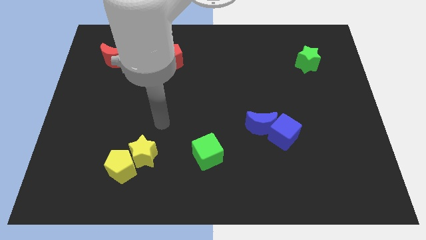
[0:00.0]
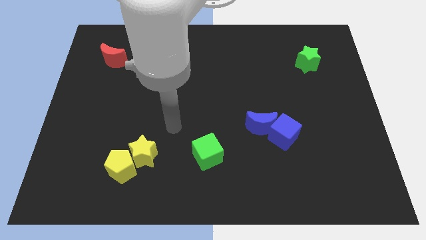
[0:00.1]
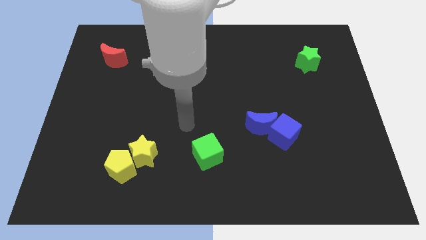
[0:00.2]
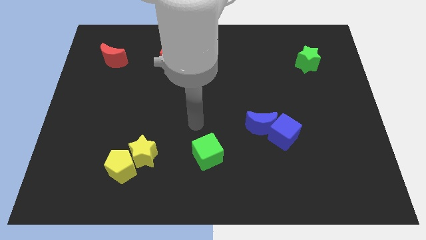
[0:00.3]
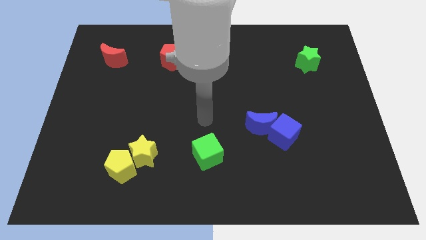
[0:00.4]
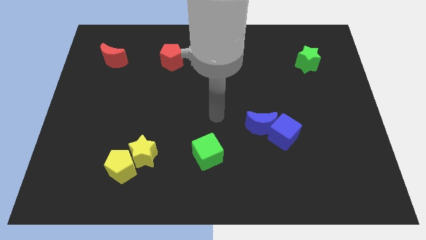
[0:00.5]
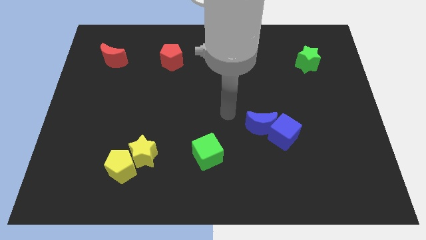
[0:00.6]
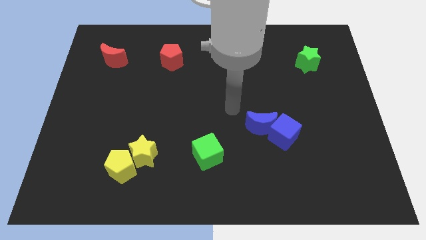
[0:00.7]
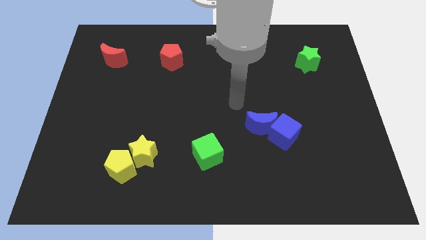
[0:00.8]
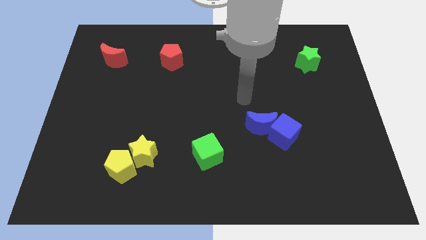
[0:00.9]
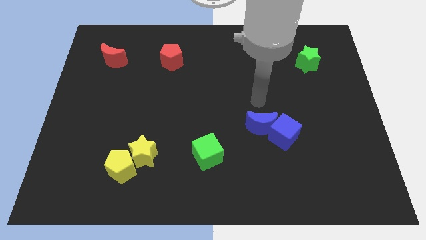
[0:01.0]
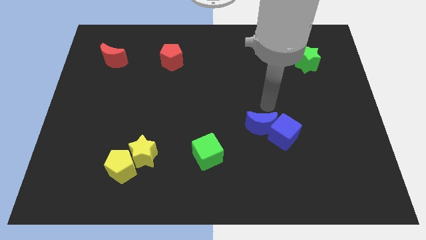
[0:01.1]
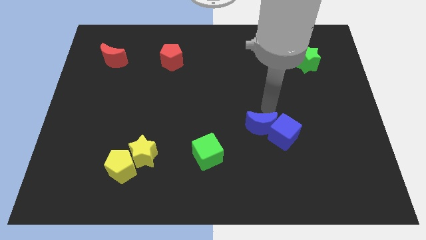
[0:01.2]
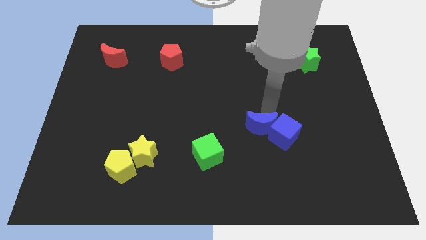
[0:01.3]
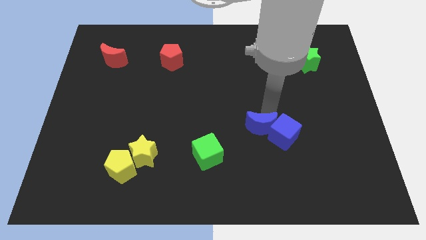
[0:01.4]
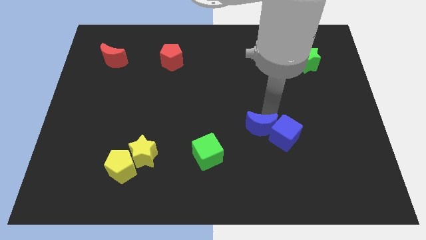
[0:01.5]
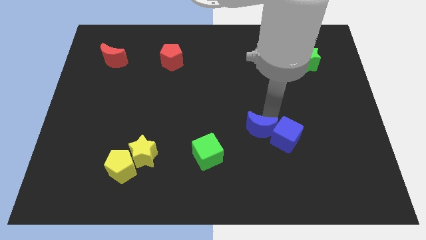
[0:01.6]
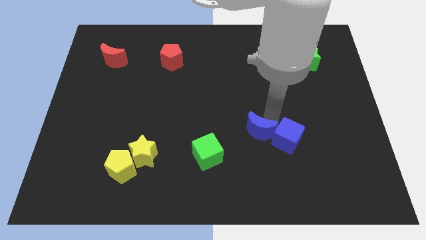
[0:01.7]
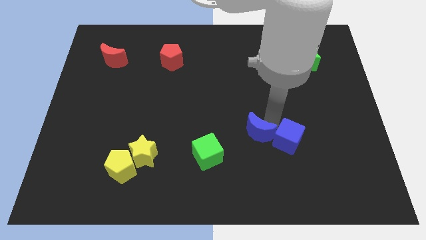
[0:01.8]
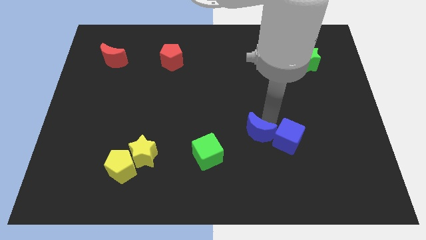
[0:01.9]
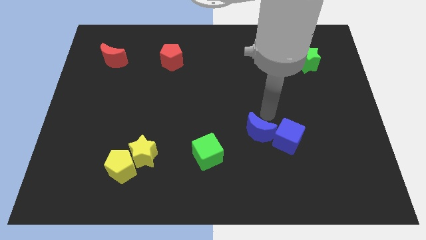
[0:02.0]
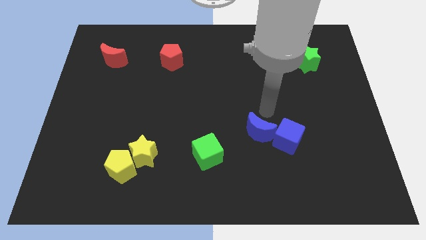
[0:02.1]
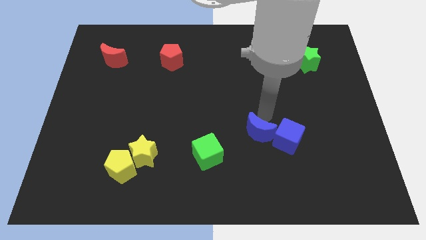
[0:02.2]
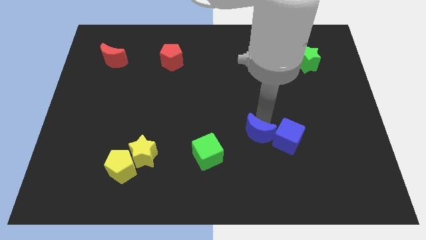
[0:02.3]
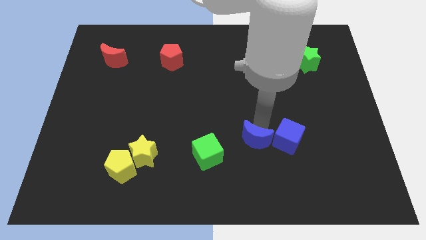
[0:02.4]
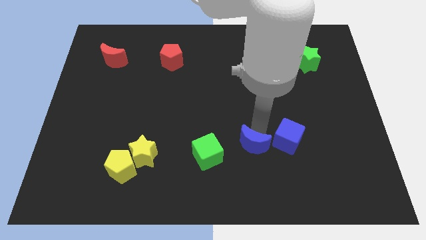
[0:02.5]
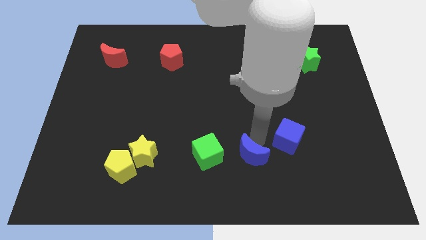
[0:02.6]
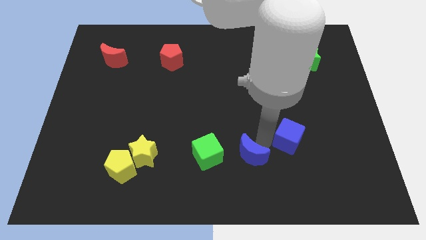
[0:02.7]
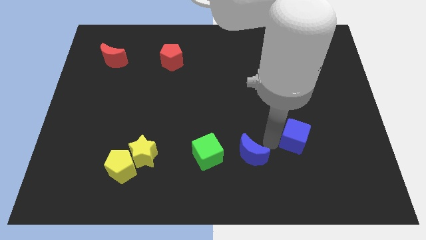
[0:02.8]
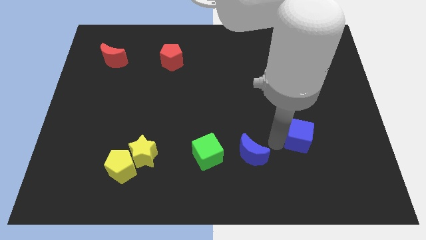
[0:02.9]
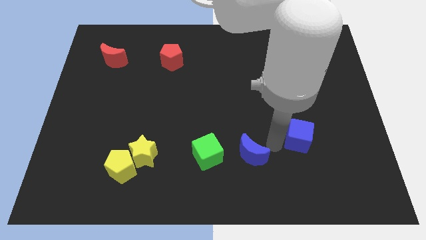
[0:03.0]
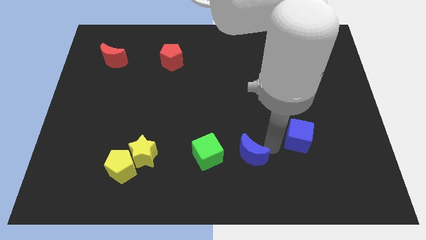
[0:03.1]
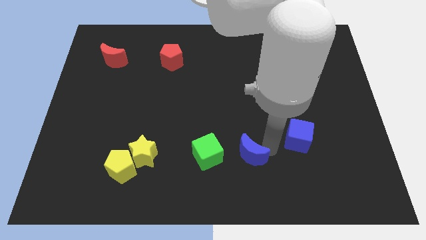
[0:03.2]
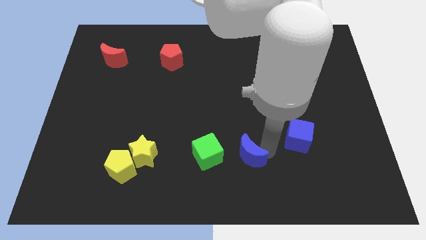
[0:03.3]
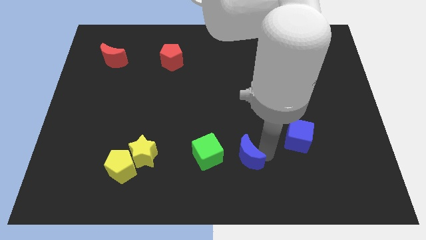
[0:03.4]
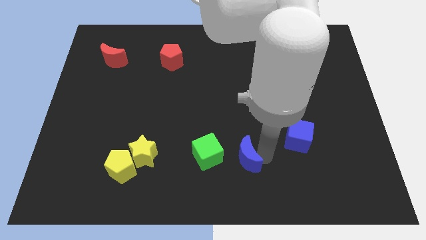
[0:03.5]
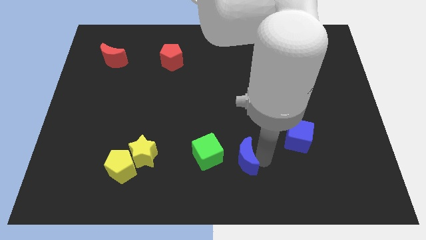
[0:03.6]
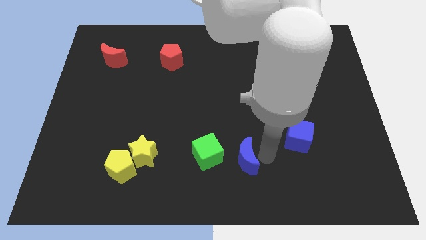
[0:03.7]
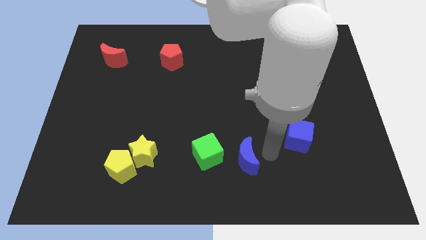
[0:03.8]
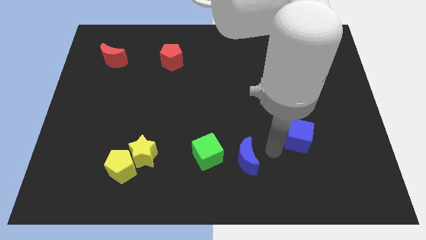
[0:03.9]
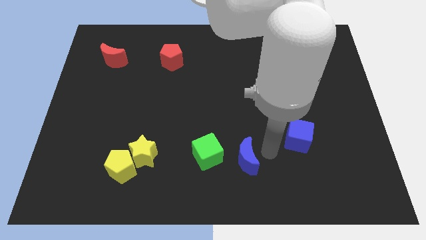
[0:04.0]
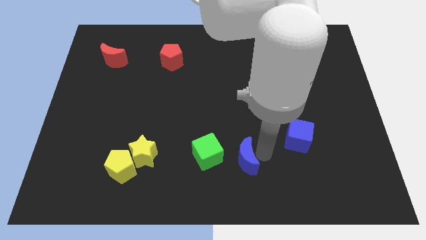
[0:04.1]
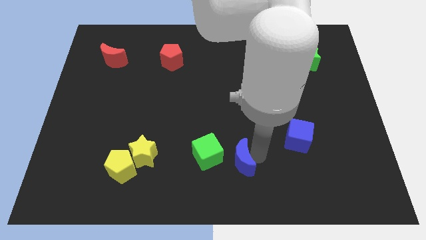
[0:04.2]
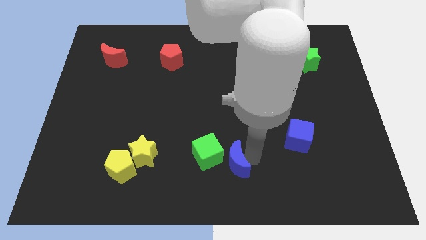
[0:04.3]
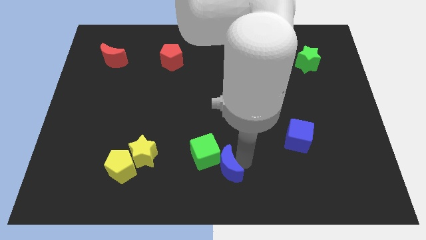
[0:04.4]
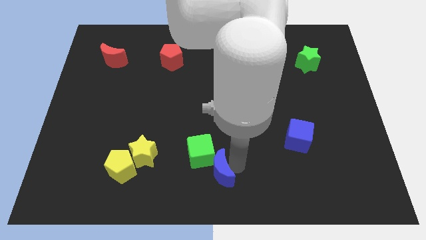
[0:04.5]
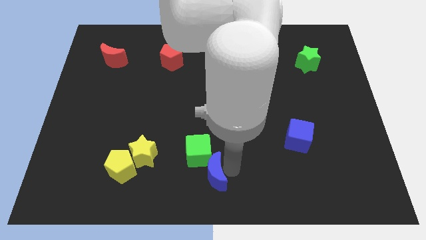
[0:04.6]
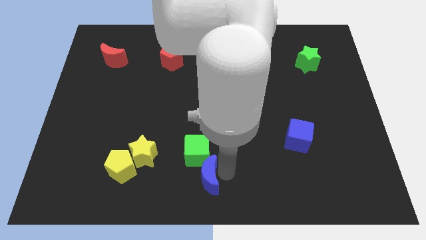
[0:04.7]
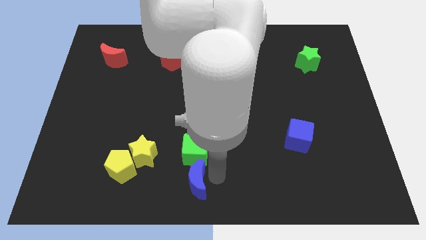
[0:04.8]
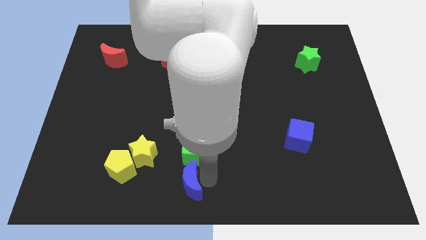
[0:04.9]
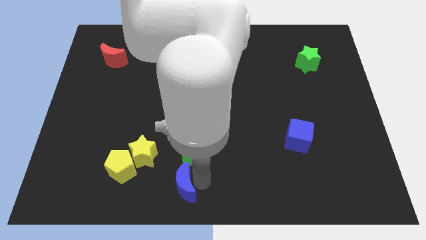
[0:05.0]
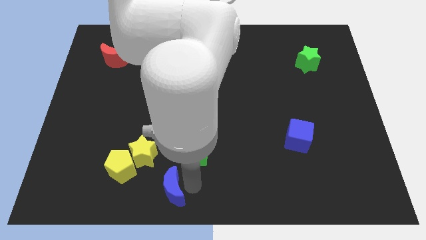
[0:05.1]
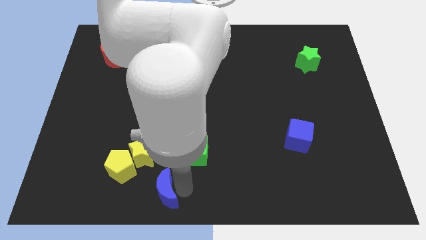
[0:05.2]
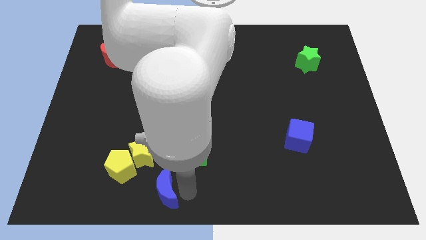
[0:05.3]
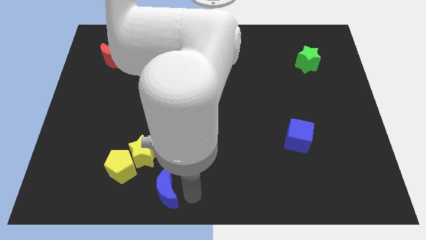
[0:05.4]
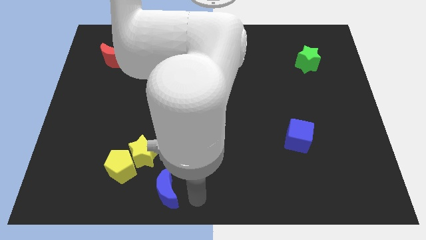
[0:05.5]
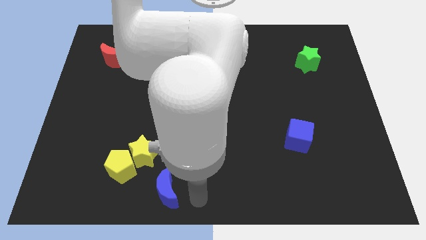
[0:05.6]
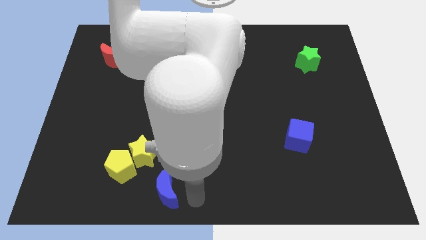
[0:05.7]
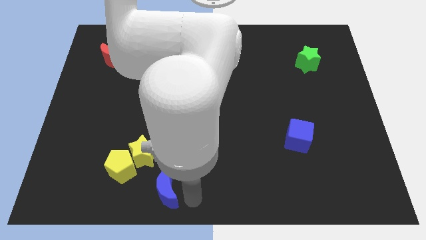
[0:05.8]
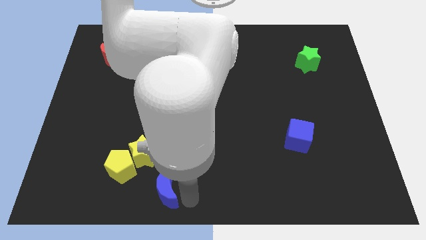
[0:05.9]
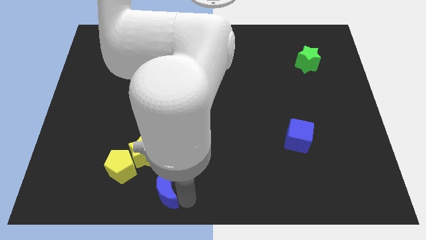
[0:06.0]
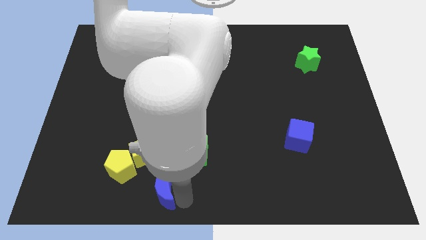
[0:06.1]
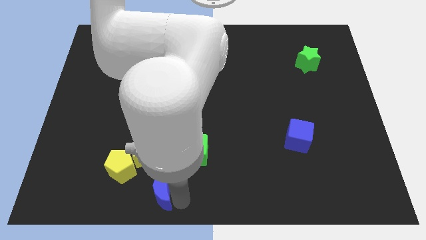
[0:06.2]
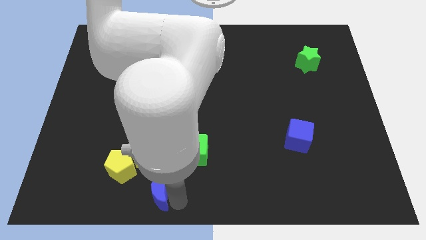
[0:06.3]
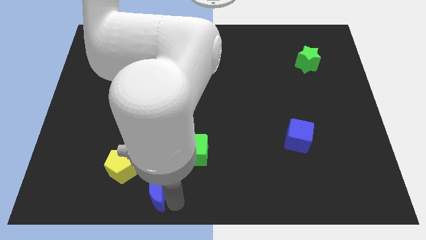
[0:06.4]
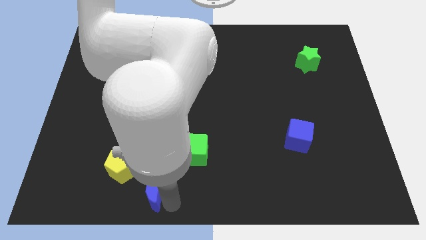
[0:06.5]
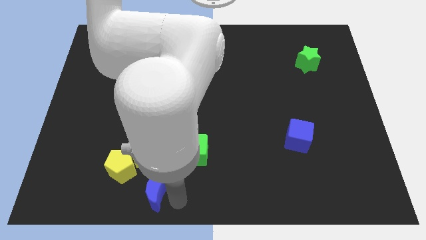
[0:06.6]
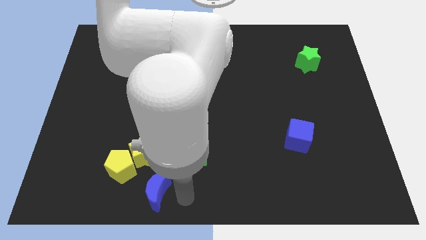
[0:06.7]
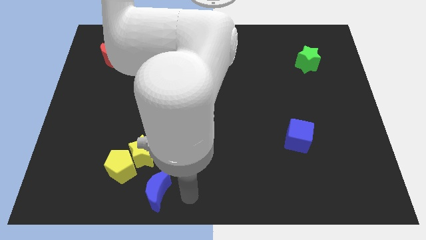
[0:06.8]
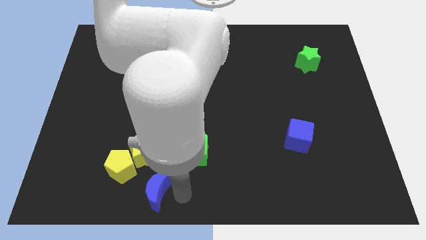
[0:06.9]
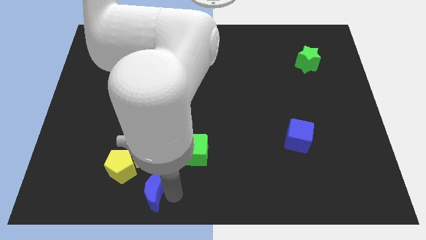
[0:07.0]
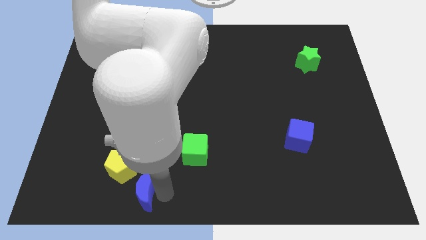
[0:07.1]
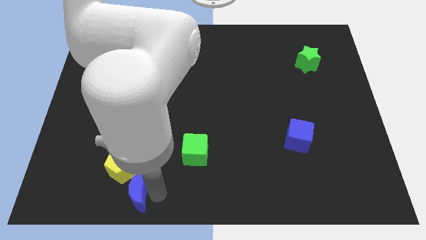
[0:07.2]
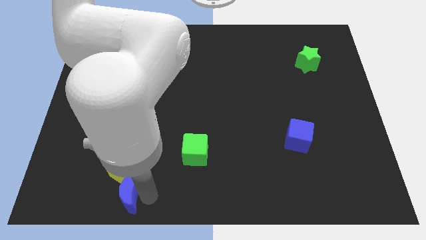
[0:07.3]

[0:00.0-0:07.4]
put the blue moon to the bottom left of the yellow star
